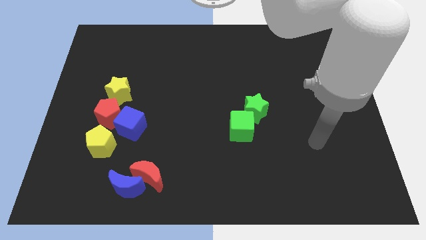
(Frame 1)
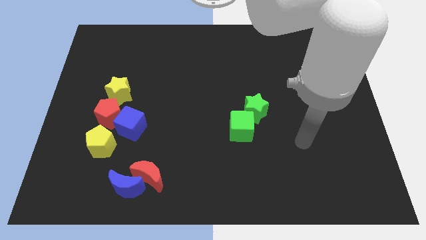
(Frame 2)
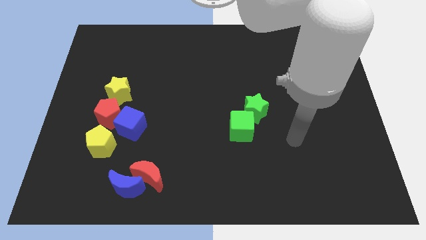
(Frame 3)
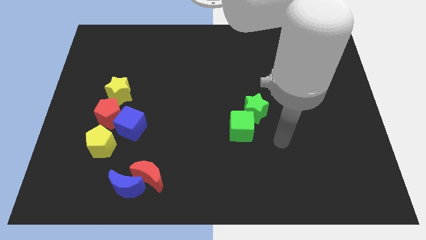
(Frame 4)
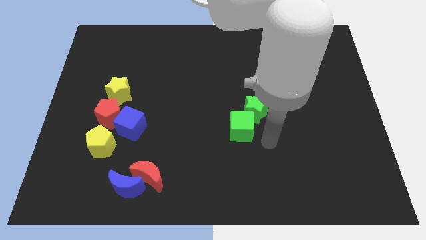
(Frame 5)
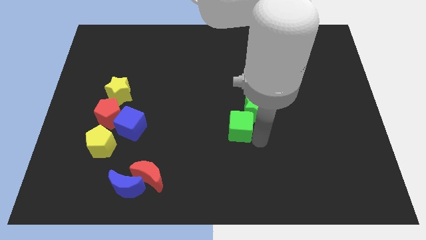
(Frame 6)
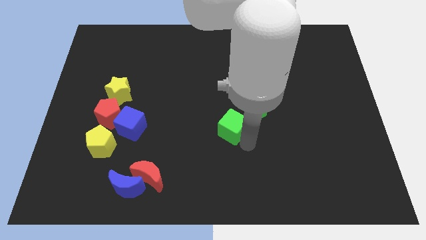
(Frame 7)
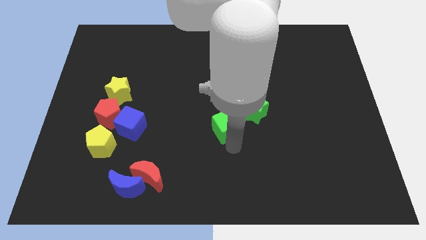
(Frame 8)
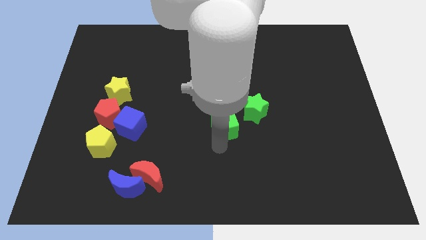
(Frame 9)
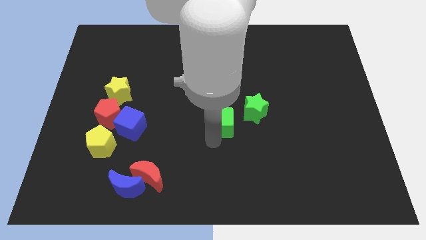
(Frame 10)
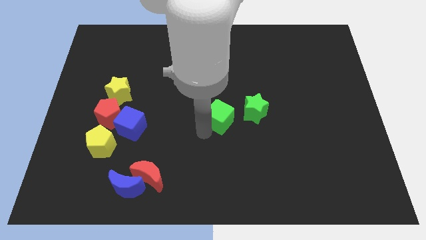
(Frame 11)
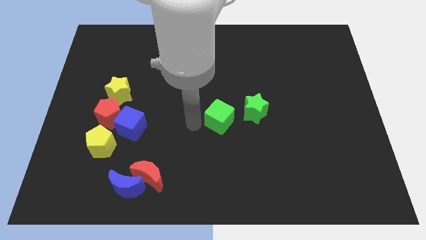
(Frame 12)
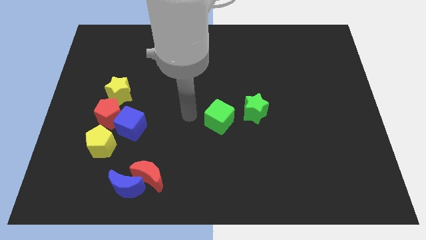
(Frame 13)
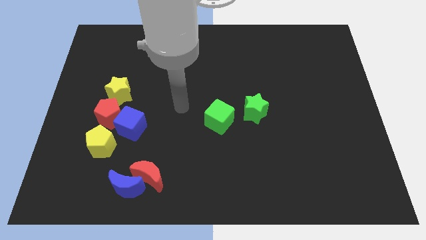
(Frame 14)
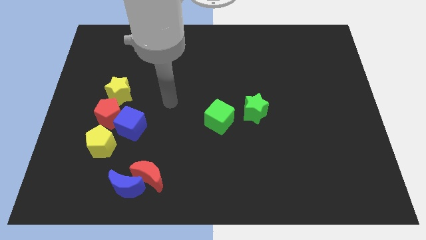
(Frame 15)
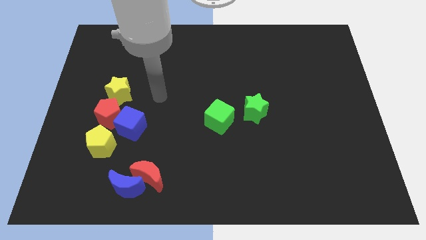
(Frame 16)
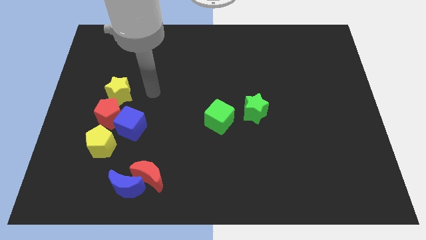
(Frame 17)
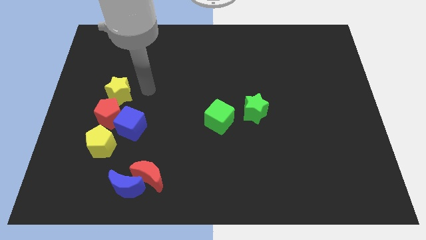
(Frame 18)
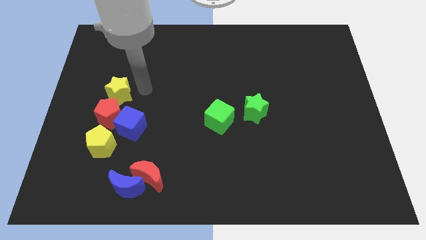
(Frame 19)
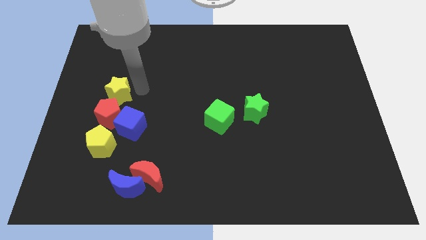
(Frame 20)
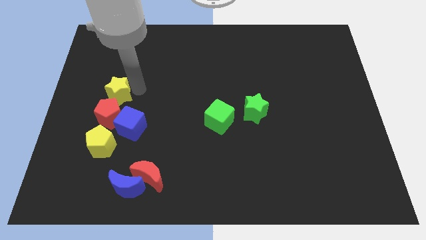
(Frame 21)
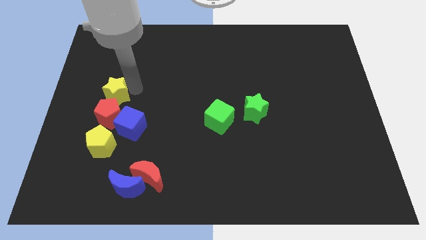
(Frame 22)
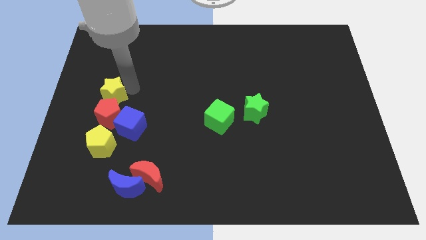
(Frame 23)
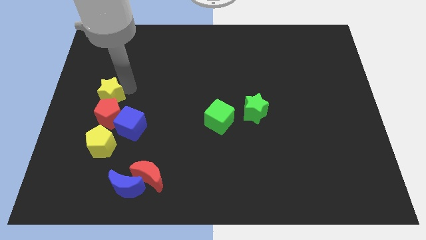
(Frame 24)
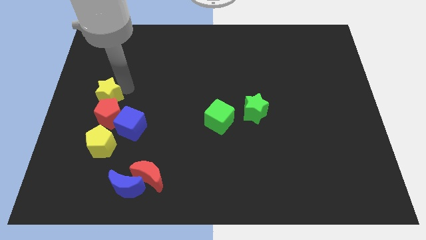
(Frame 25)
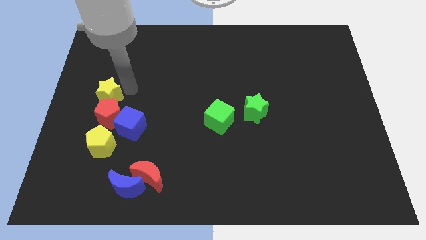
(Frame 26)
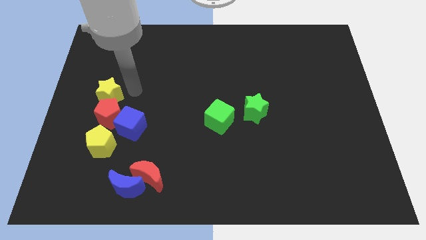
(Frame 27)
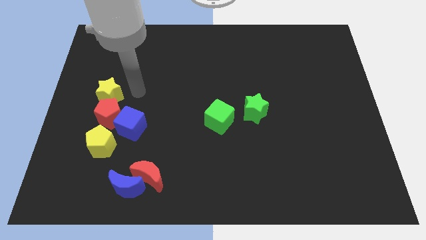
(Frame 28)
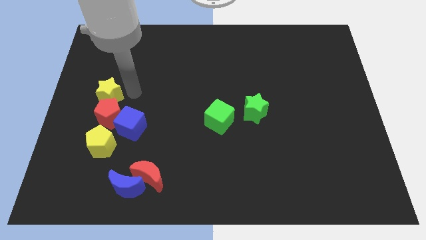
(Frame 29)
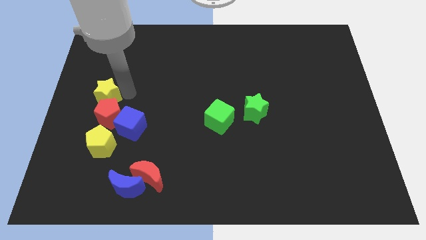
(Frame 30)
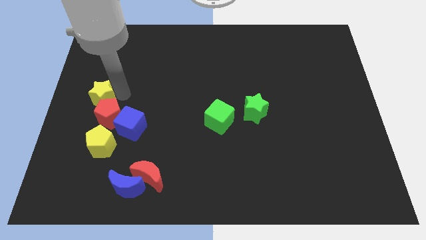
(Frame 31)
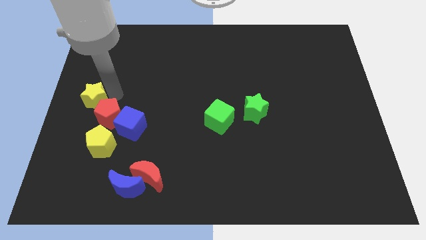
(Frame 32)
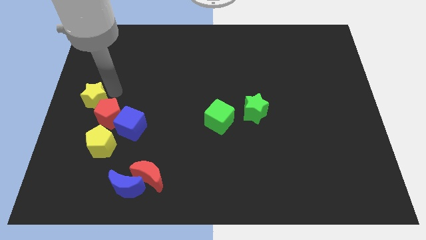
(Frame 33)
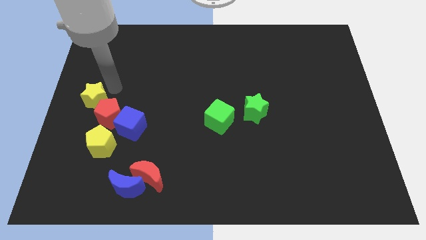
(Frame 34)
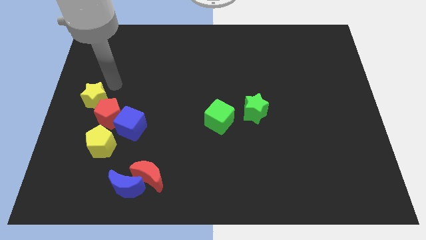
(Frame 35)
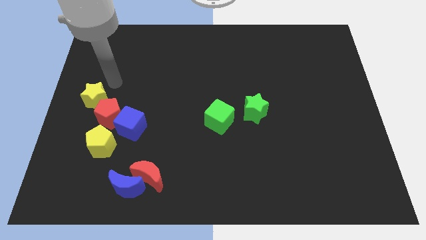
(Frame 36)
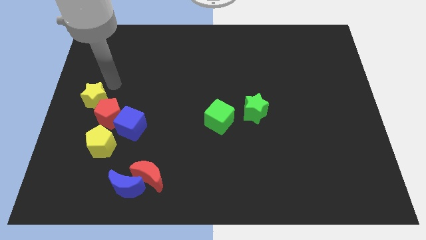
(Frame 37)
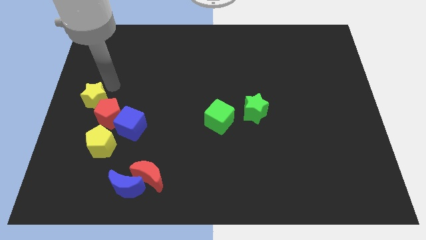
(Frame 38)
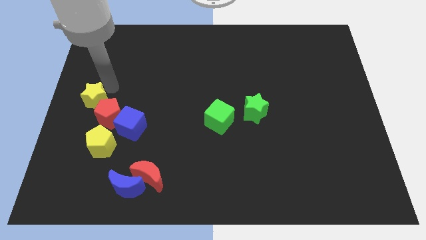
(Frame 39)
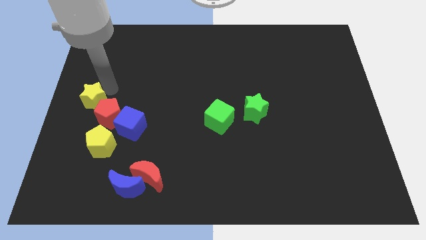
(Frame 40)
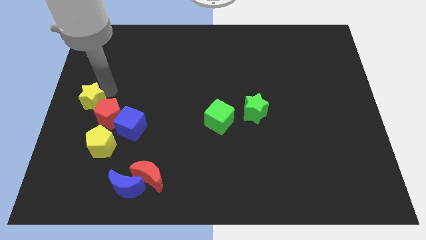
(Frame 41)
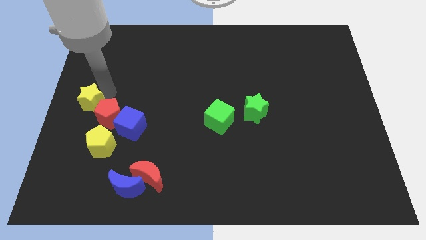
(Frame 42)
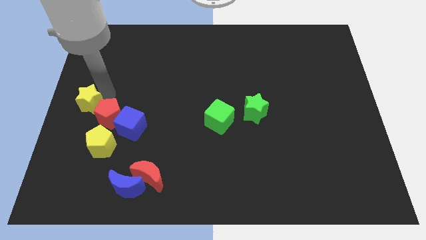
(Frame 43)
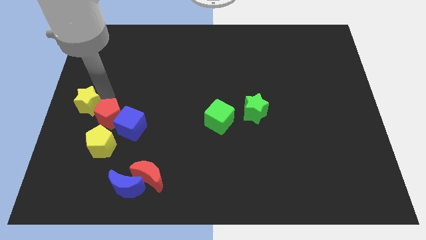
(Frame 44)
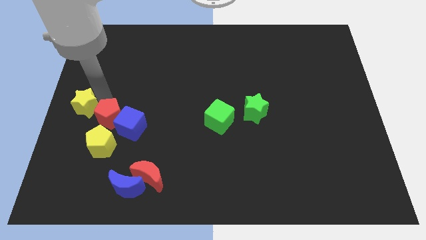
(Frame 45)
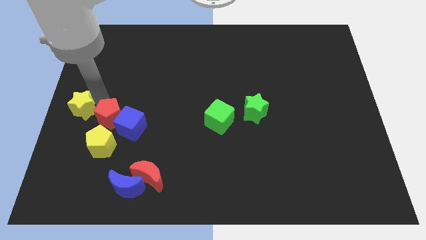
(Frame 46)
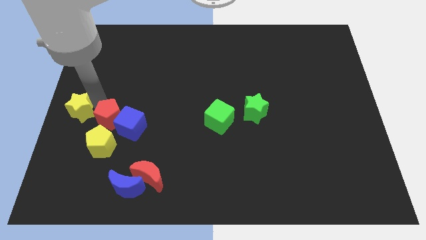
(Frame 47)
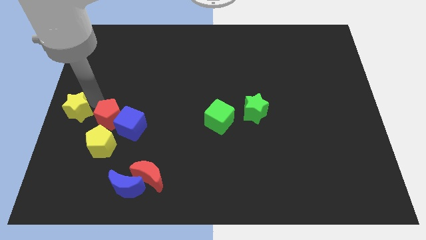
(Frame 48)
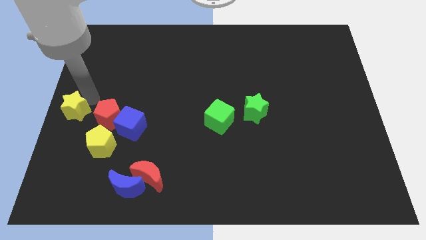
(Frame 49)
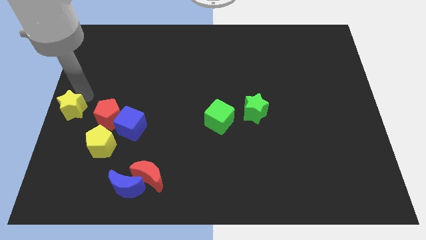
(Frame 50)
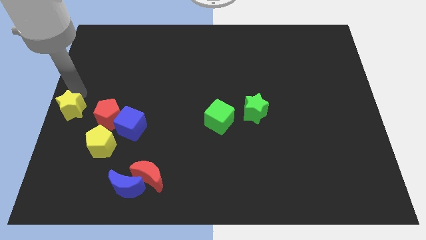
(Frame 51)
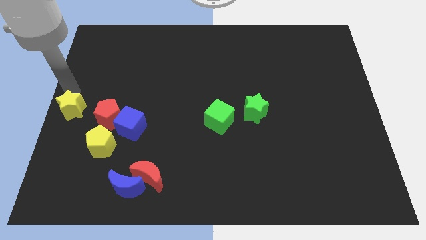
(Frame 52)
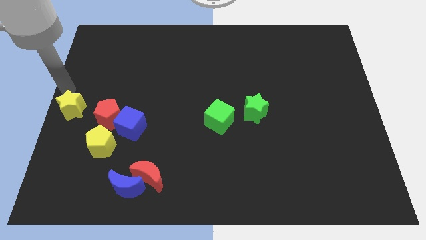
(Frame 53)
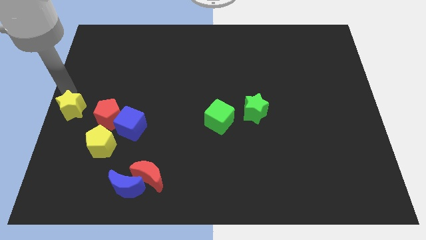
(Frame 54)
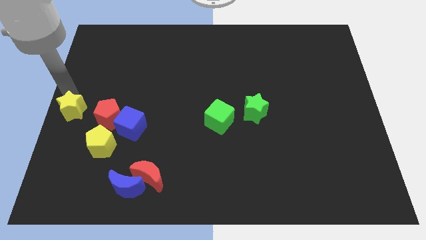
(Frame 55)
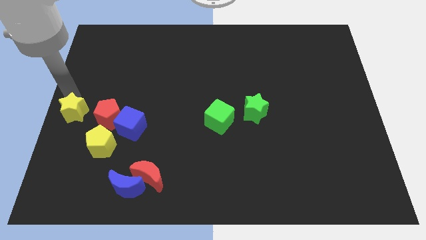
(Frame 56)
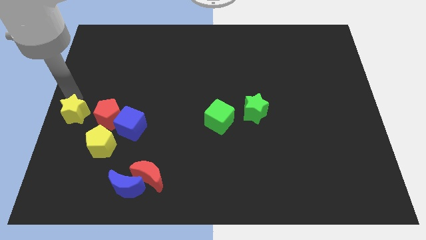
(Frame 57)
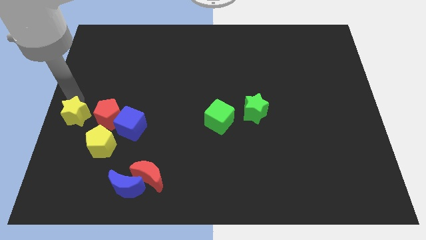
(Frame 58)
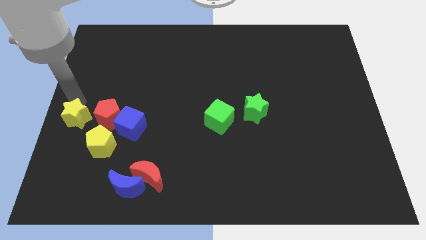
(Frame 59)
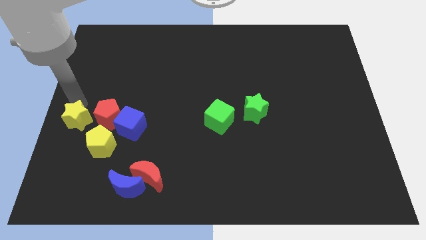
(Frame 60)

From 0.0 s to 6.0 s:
move the yellow star to the bottom left side of the red pentagon
